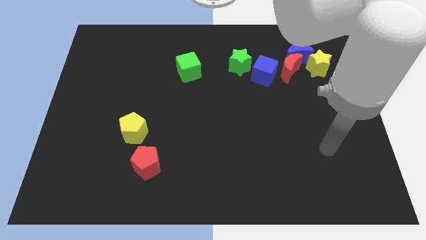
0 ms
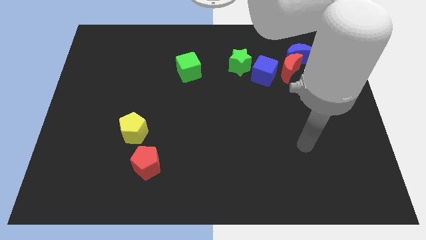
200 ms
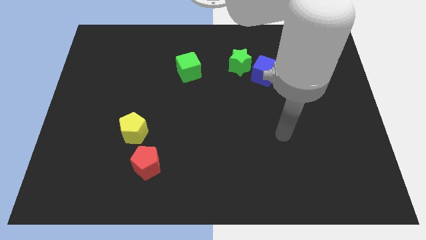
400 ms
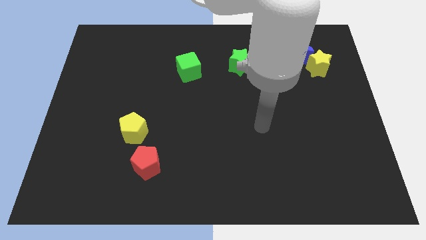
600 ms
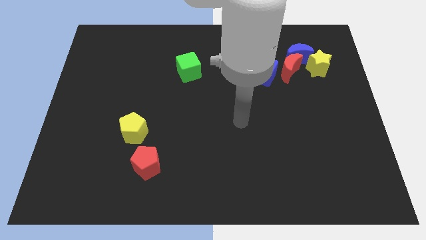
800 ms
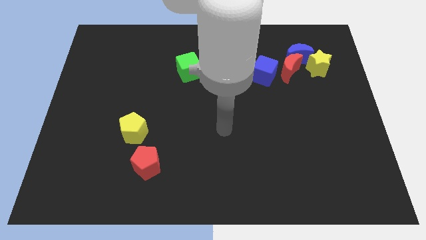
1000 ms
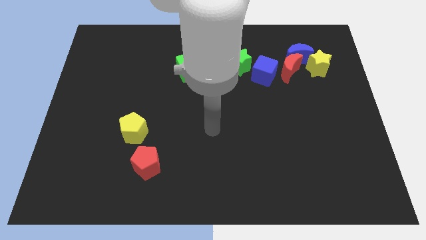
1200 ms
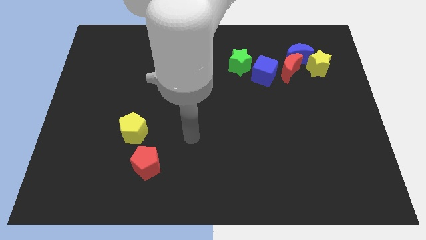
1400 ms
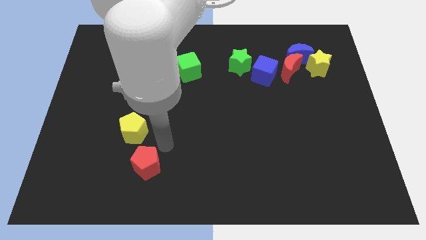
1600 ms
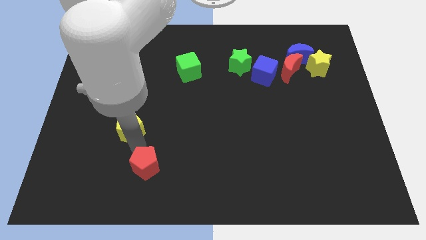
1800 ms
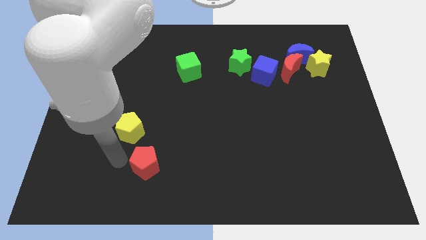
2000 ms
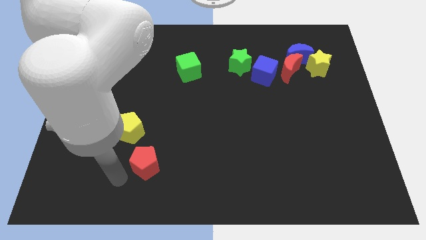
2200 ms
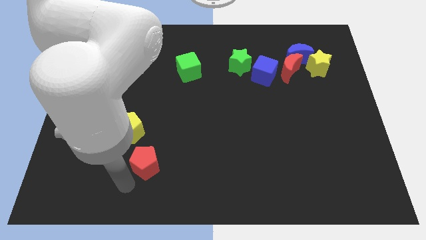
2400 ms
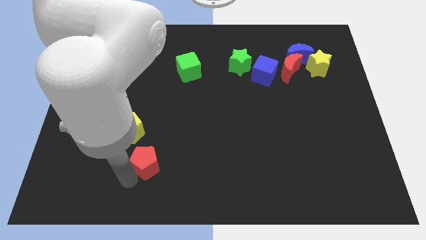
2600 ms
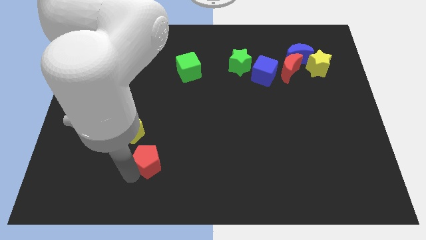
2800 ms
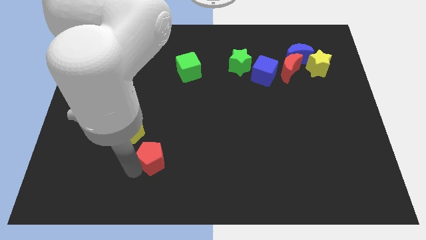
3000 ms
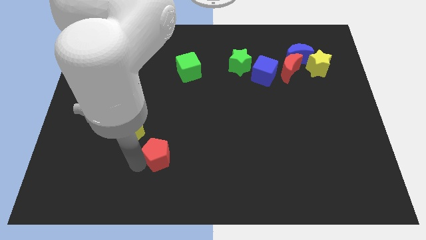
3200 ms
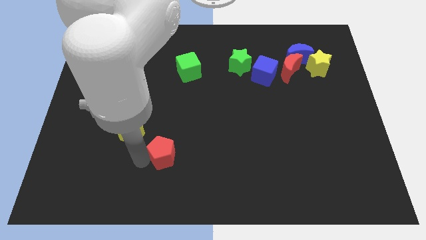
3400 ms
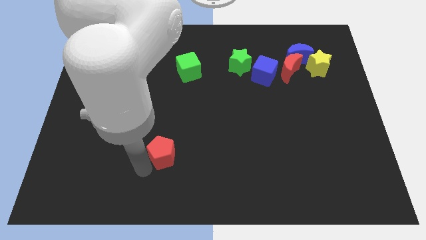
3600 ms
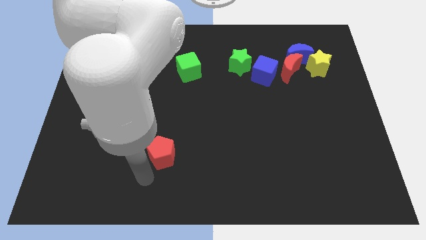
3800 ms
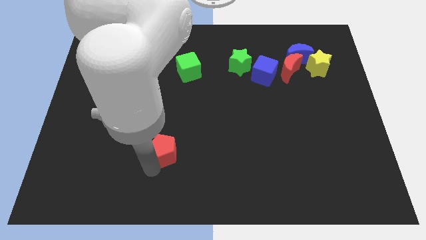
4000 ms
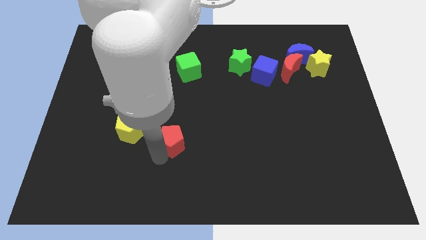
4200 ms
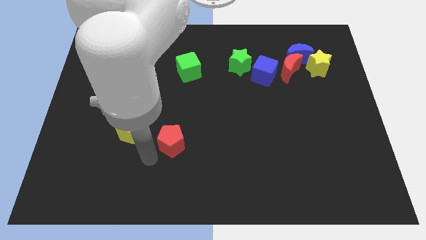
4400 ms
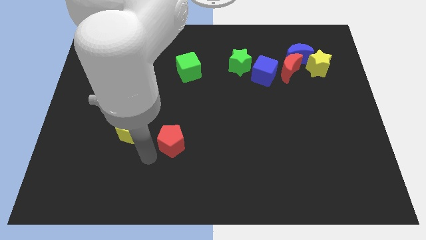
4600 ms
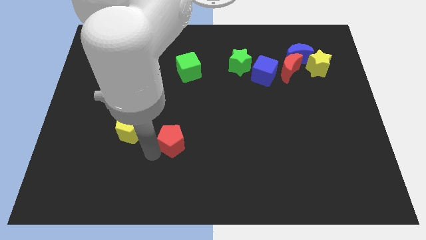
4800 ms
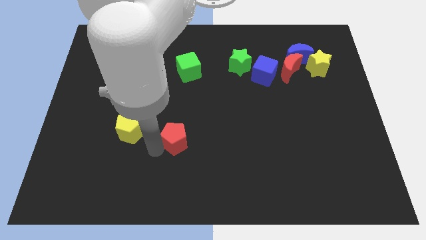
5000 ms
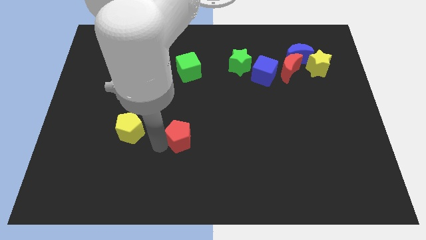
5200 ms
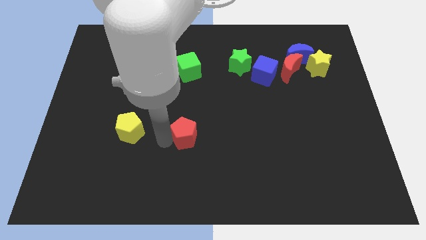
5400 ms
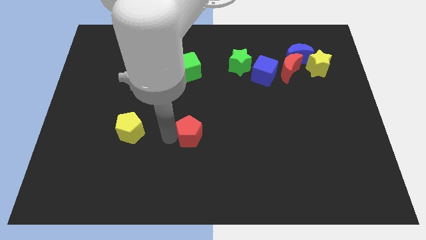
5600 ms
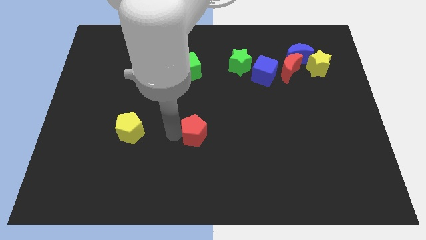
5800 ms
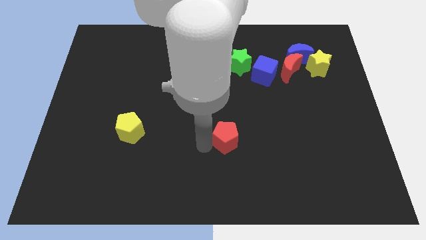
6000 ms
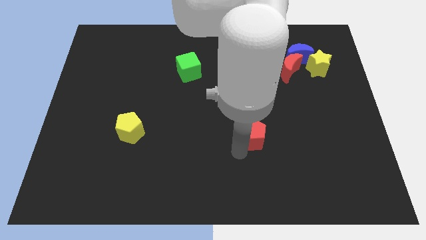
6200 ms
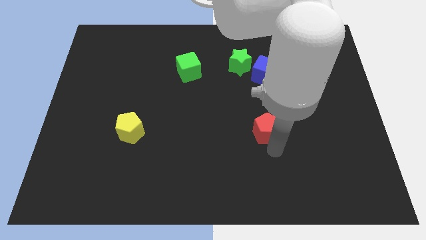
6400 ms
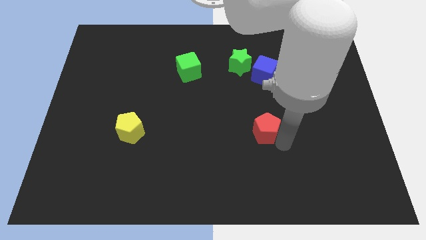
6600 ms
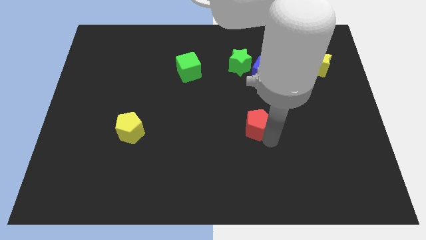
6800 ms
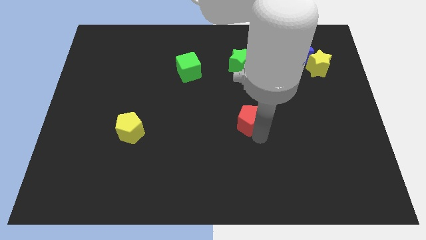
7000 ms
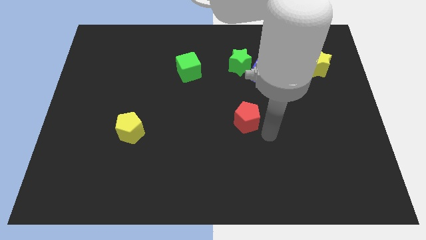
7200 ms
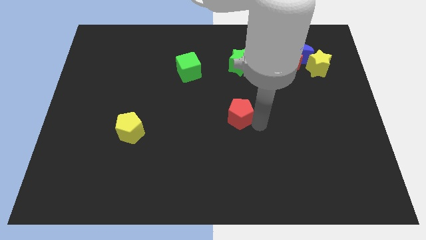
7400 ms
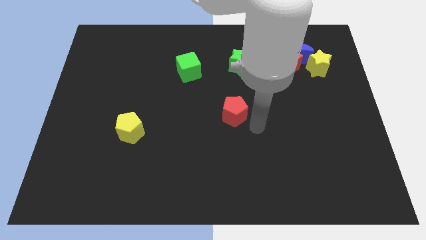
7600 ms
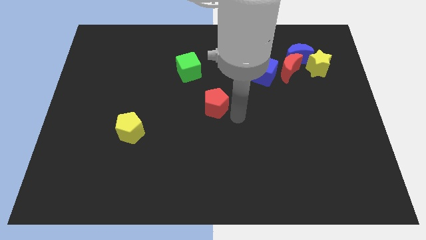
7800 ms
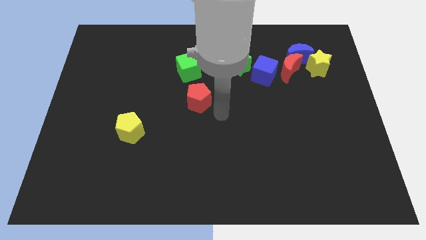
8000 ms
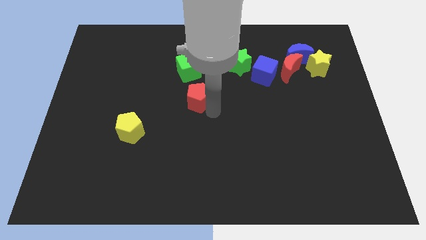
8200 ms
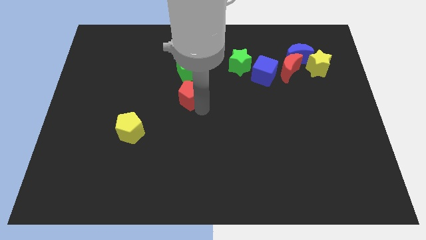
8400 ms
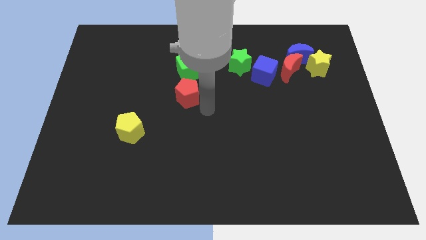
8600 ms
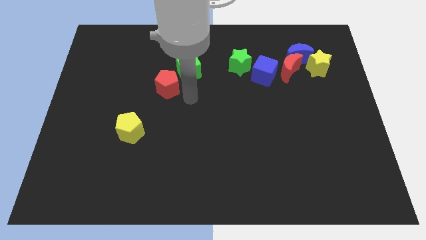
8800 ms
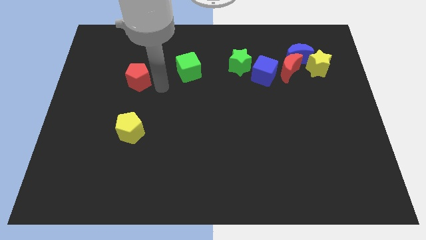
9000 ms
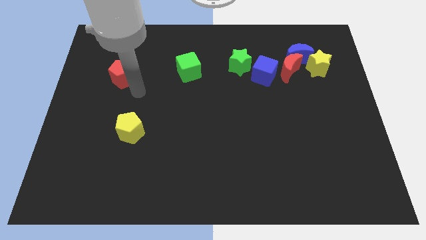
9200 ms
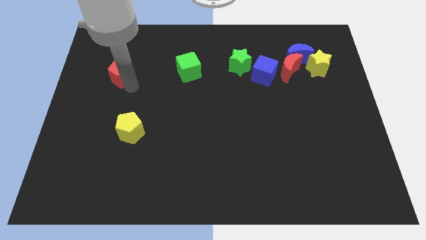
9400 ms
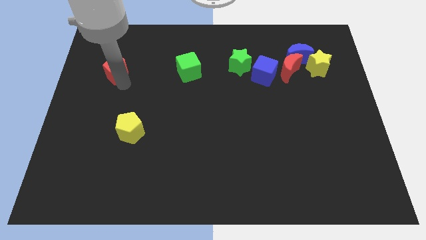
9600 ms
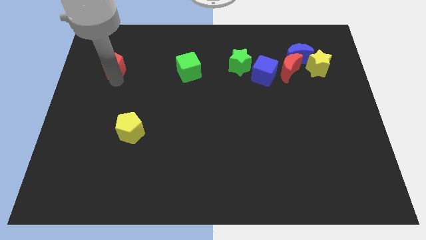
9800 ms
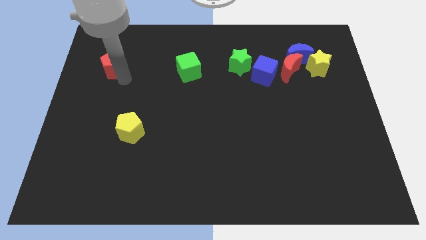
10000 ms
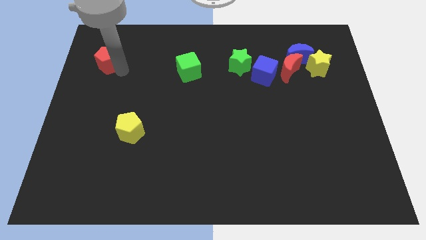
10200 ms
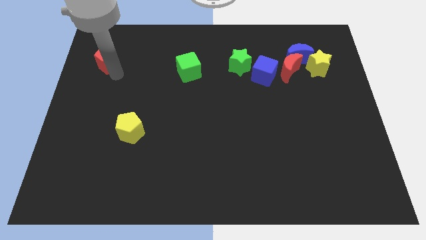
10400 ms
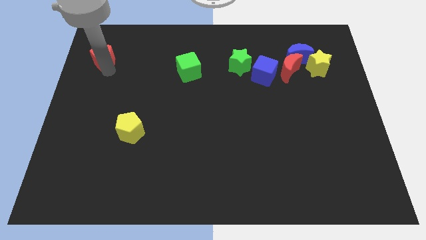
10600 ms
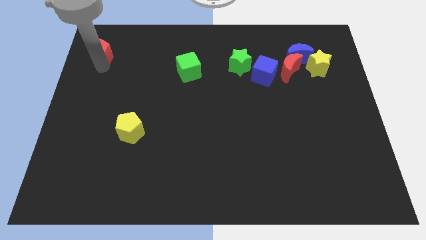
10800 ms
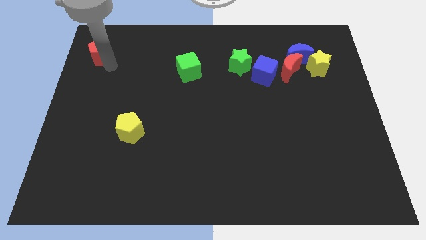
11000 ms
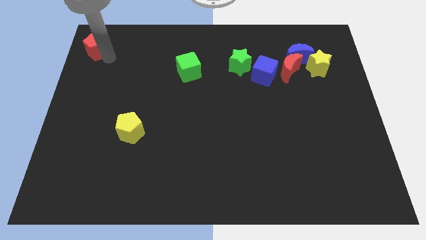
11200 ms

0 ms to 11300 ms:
put the red pentagon to the top left corner

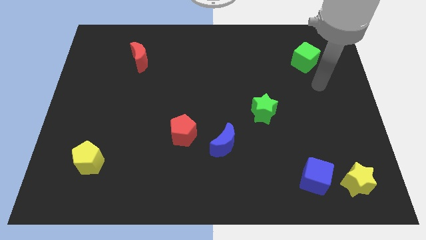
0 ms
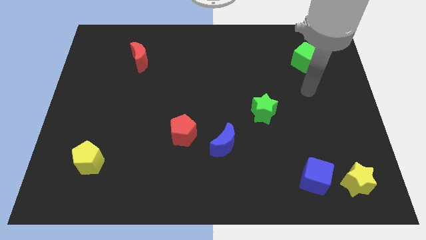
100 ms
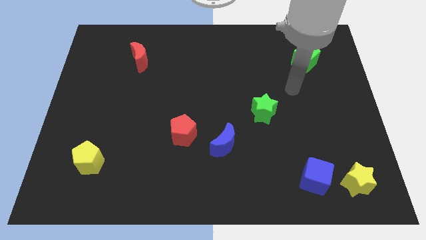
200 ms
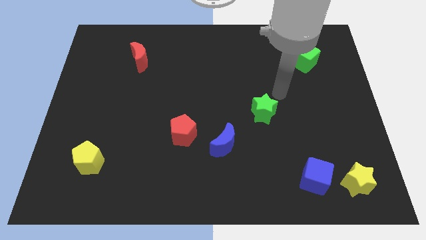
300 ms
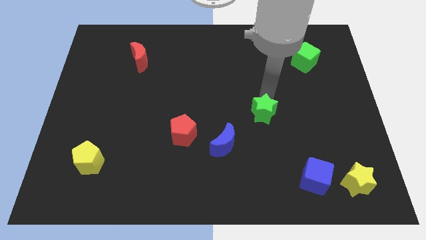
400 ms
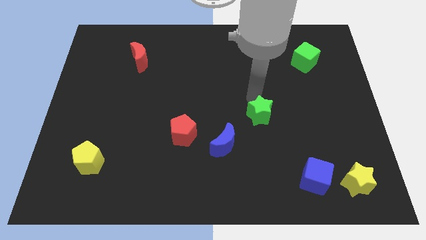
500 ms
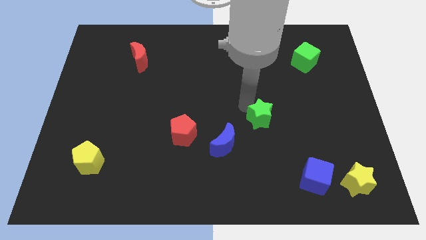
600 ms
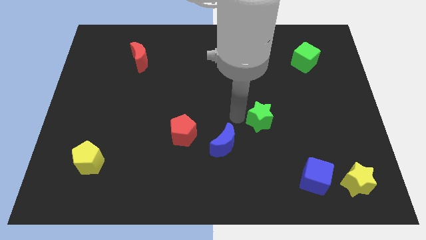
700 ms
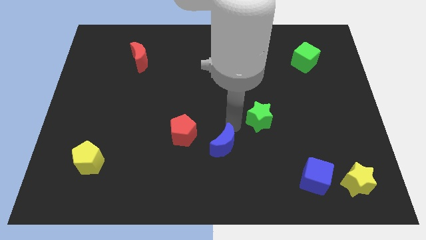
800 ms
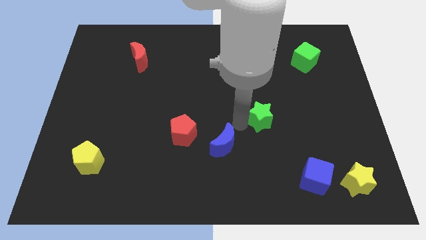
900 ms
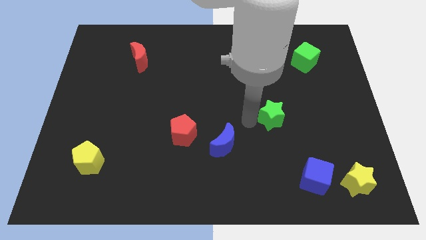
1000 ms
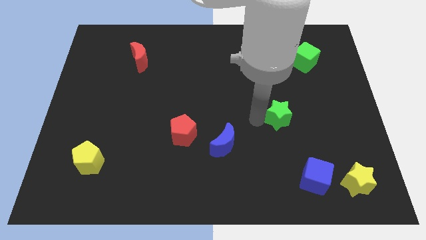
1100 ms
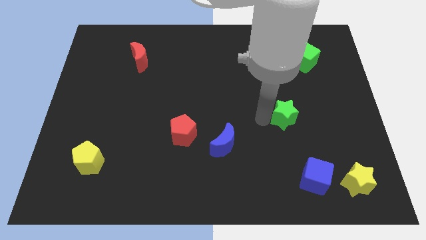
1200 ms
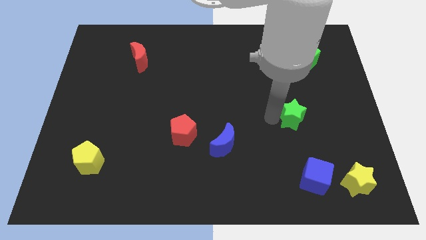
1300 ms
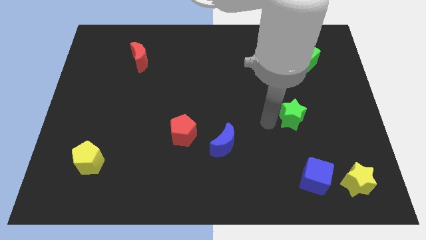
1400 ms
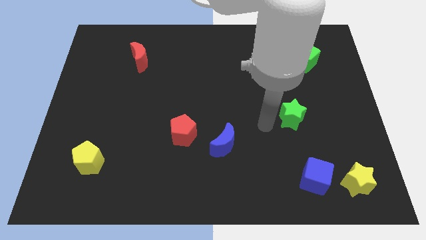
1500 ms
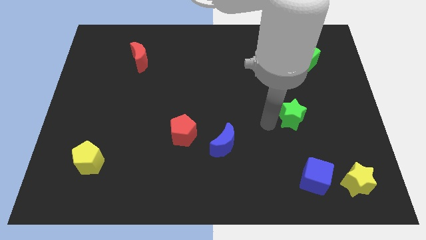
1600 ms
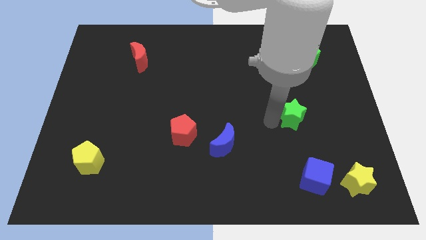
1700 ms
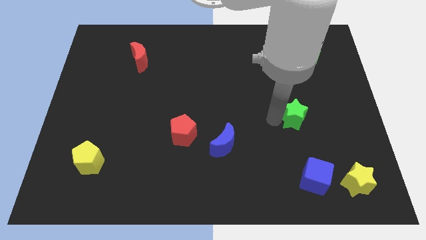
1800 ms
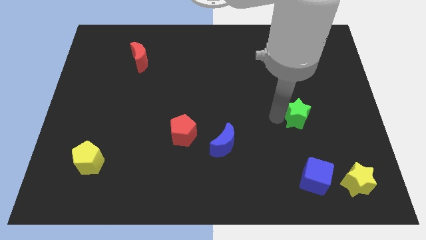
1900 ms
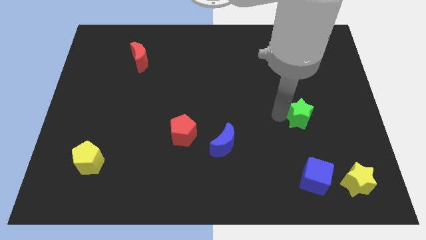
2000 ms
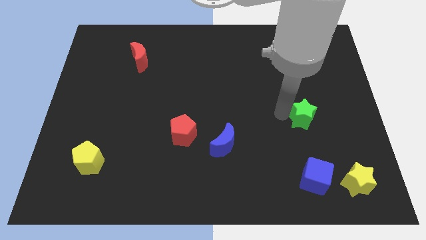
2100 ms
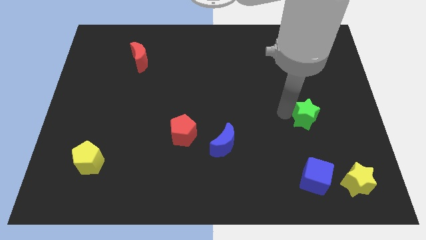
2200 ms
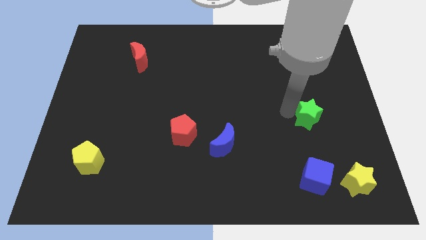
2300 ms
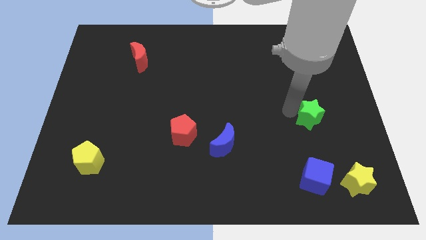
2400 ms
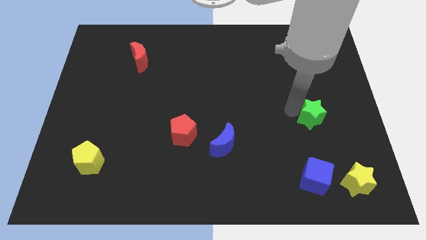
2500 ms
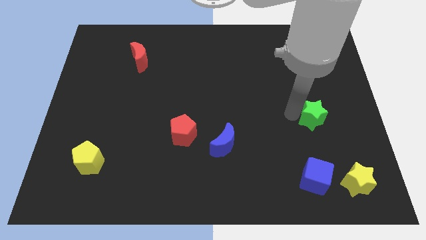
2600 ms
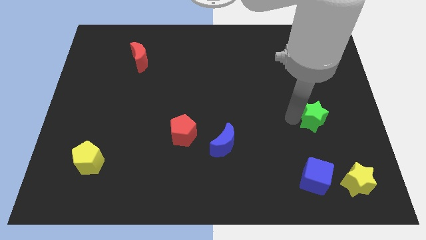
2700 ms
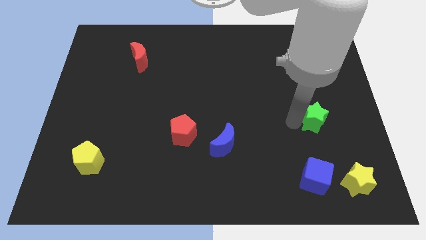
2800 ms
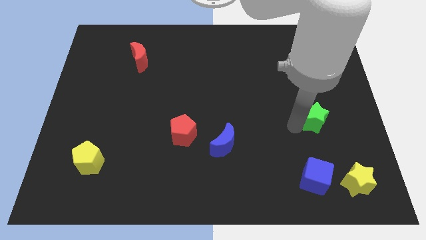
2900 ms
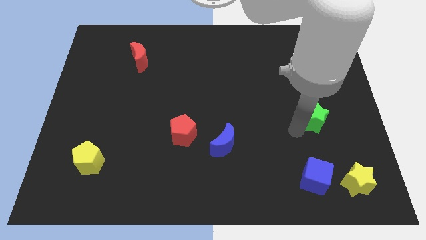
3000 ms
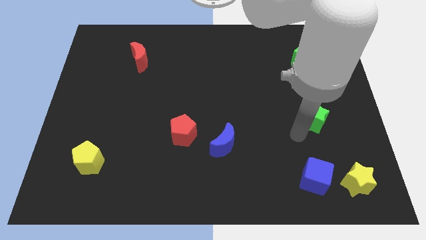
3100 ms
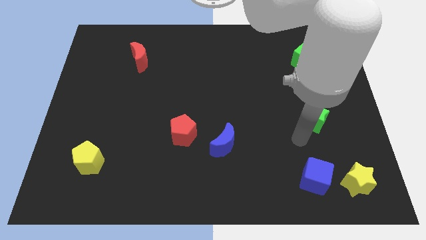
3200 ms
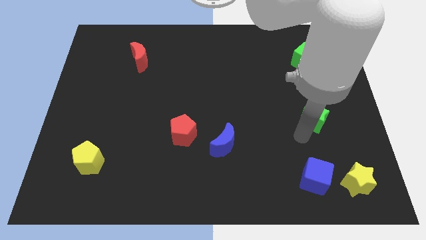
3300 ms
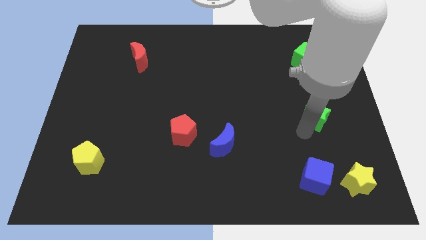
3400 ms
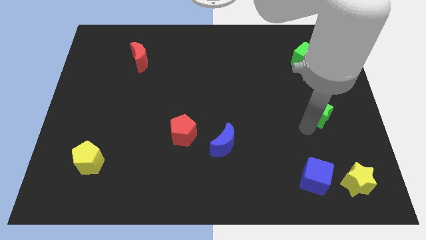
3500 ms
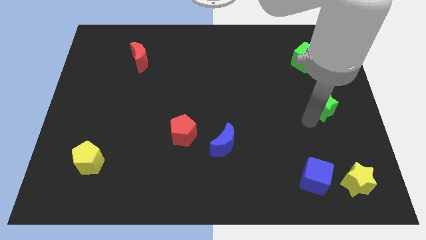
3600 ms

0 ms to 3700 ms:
put the green star to the right side of the board
